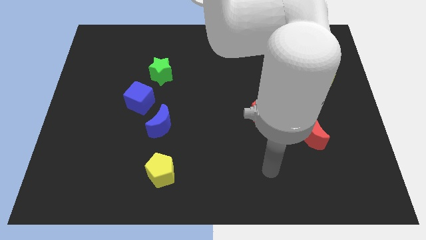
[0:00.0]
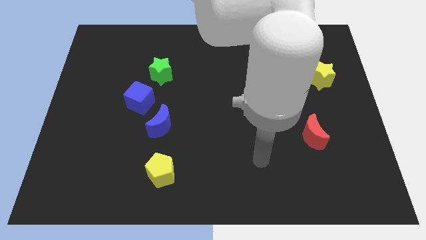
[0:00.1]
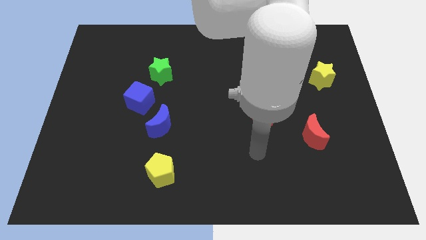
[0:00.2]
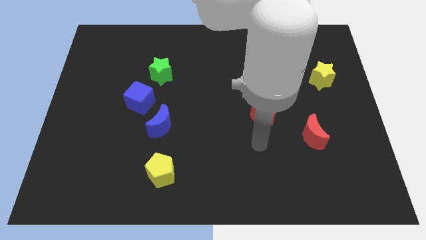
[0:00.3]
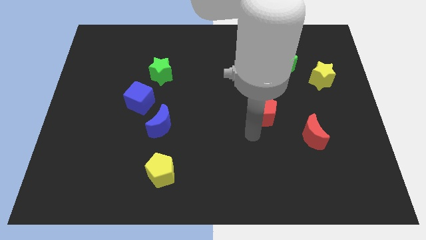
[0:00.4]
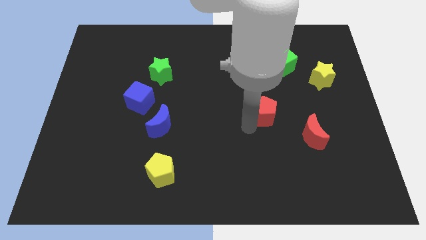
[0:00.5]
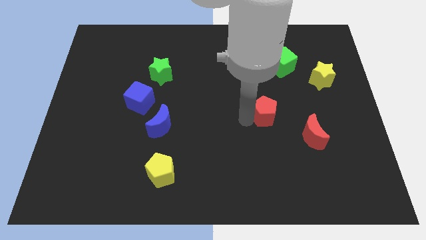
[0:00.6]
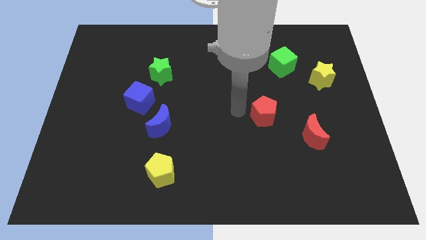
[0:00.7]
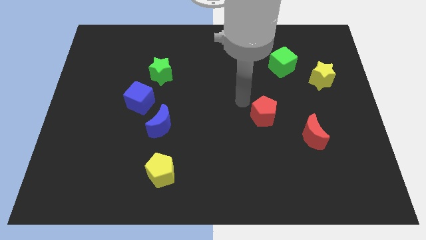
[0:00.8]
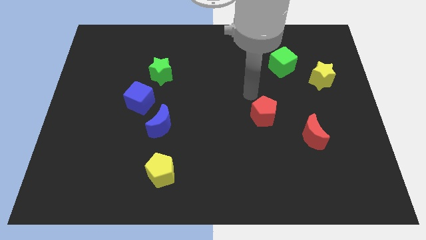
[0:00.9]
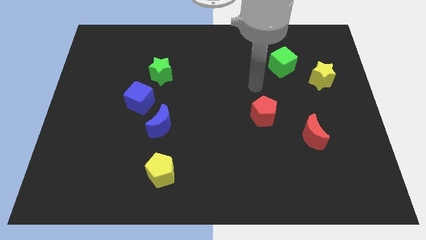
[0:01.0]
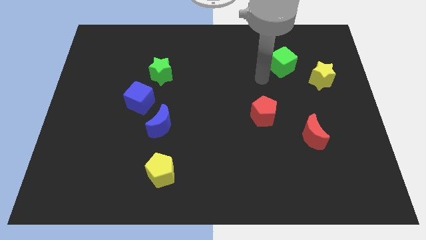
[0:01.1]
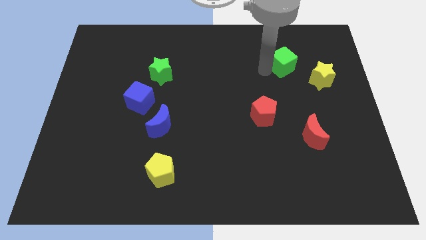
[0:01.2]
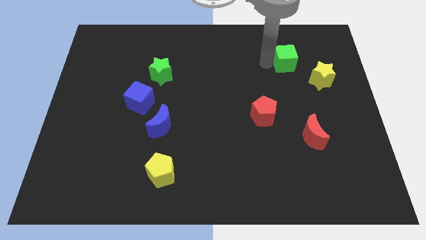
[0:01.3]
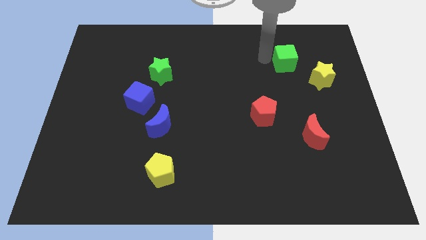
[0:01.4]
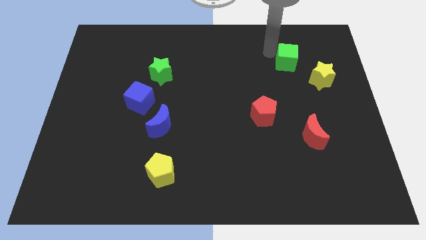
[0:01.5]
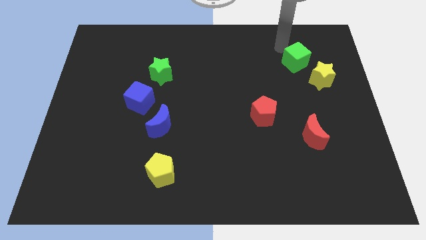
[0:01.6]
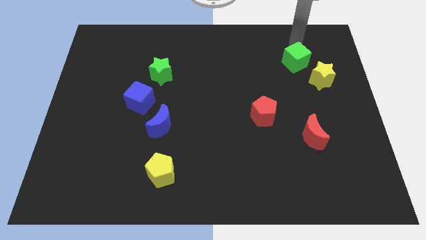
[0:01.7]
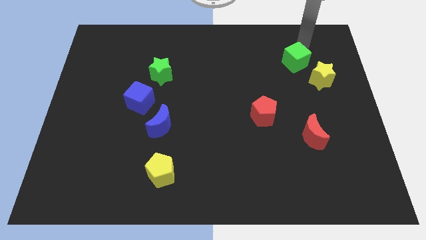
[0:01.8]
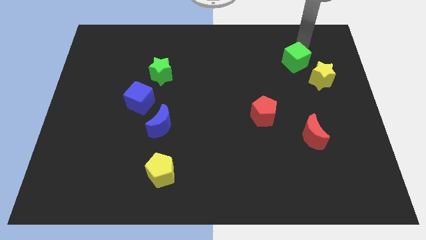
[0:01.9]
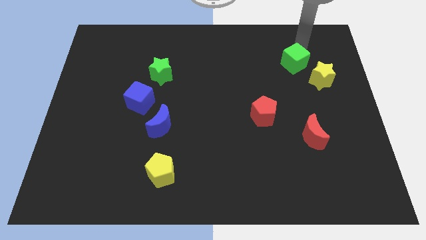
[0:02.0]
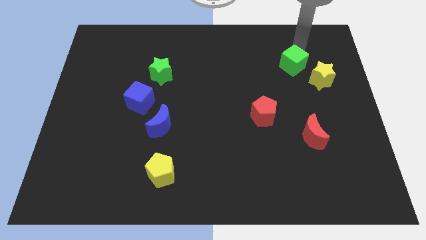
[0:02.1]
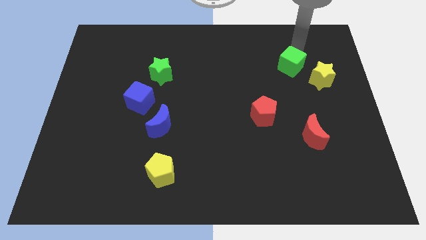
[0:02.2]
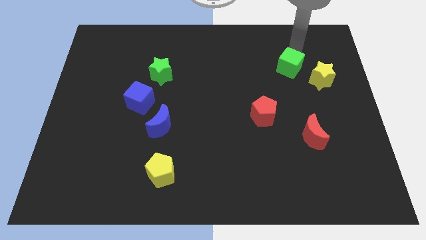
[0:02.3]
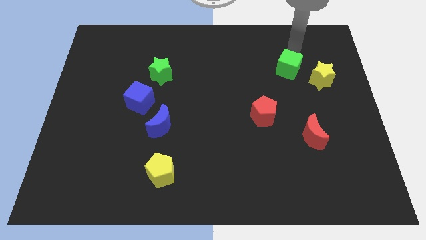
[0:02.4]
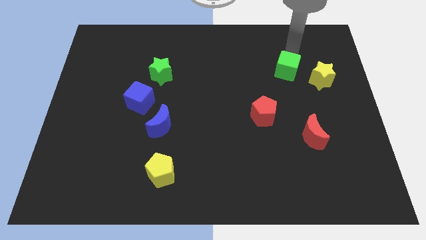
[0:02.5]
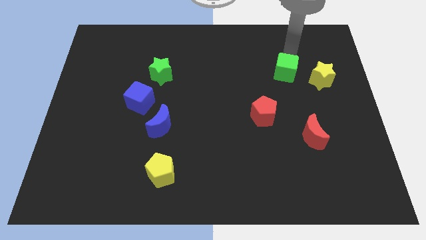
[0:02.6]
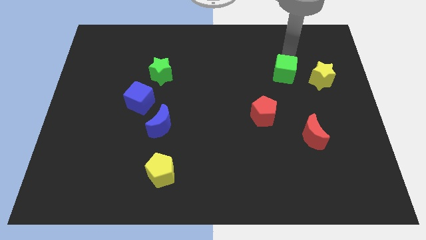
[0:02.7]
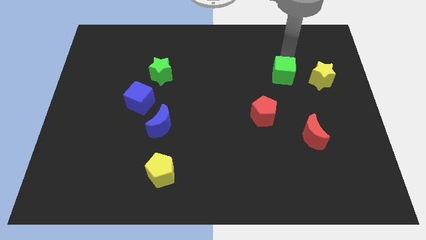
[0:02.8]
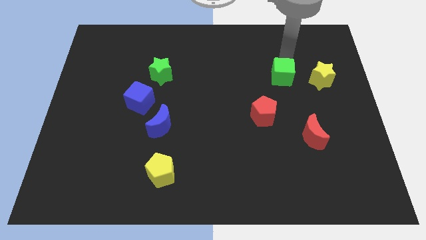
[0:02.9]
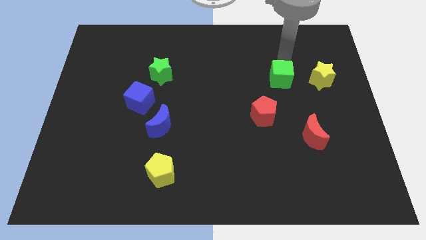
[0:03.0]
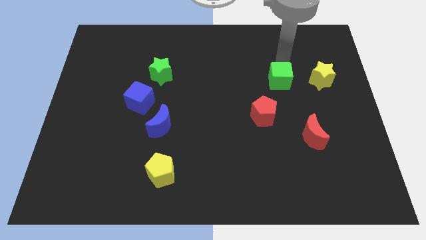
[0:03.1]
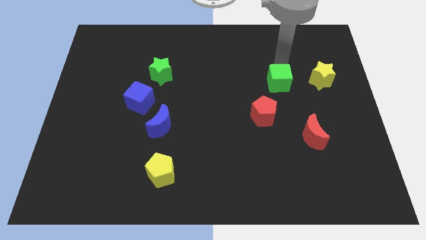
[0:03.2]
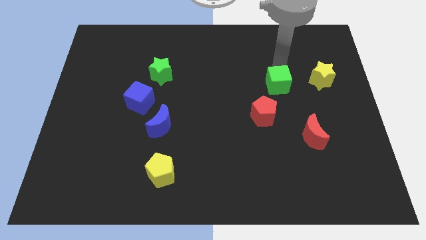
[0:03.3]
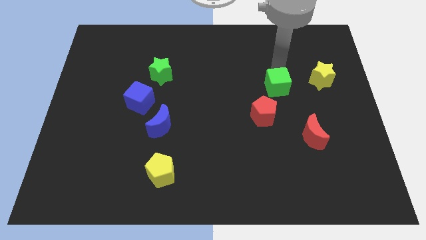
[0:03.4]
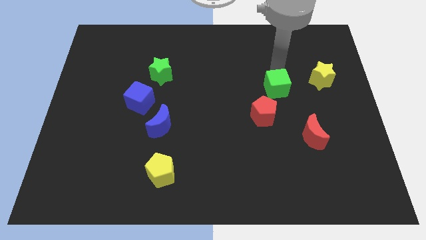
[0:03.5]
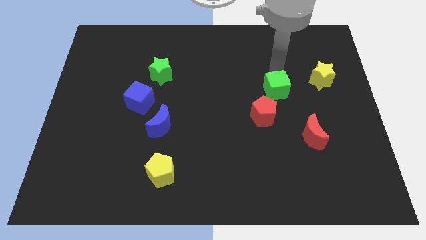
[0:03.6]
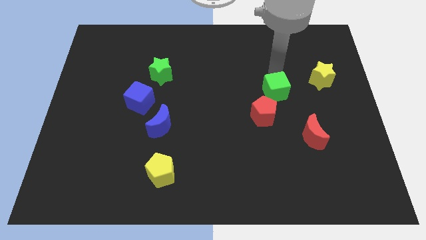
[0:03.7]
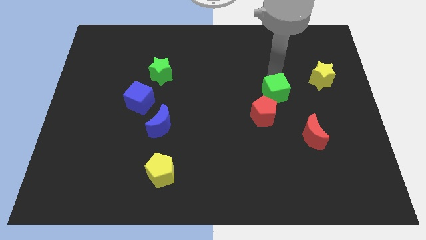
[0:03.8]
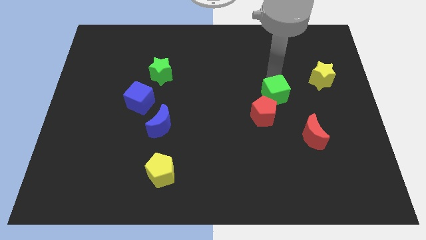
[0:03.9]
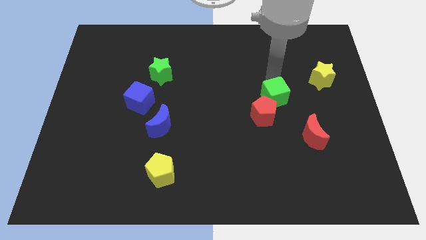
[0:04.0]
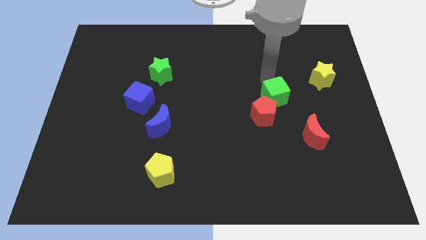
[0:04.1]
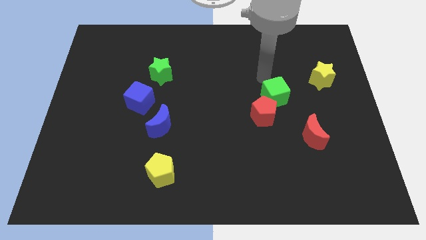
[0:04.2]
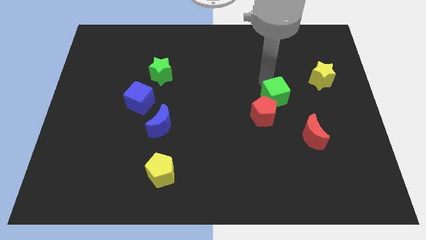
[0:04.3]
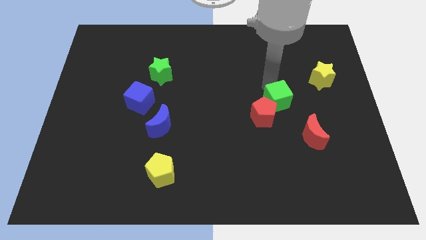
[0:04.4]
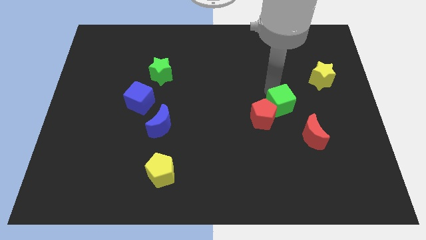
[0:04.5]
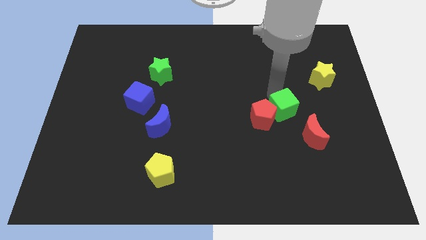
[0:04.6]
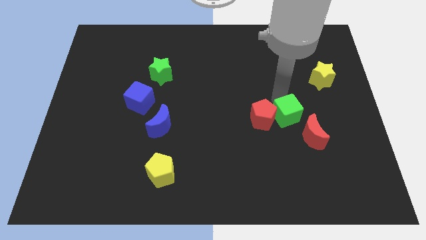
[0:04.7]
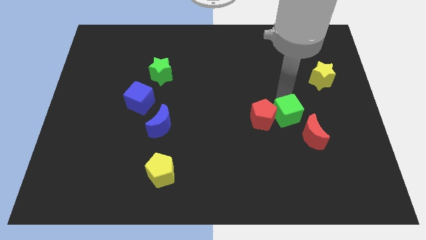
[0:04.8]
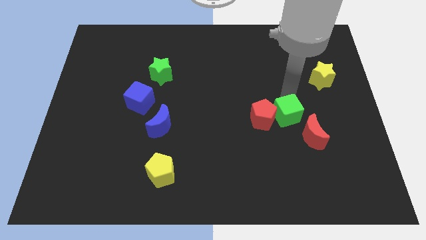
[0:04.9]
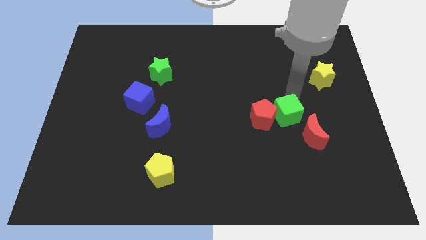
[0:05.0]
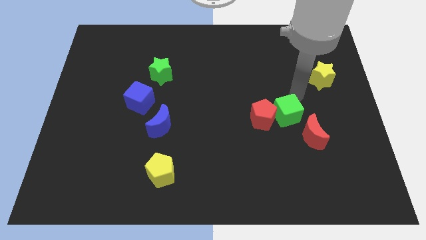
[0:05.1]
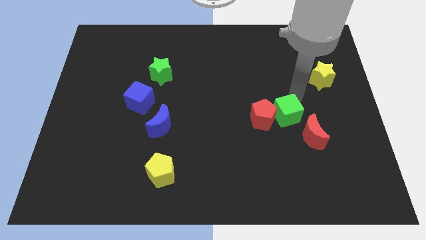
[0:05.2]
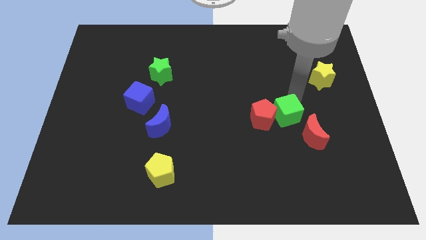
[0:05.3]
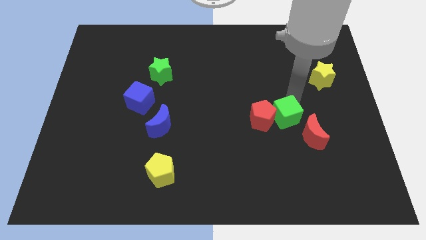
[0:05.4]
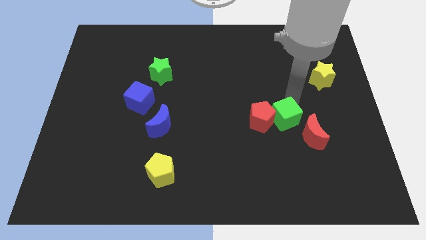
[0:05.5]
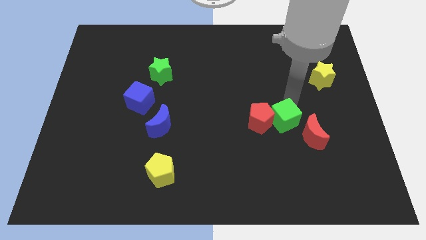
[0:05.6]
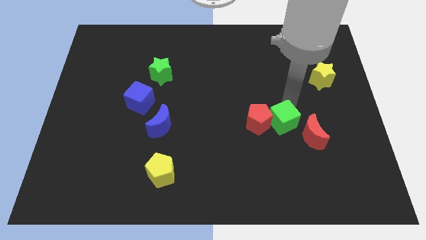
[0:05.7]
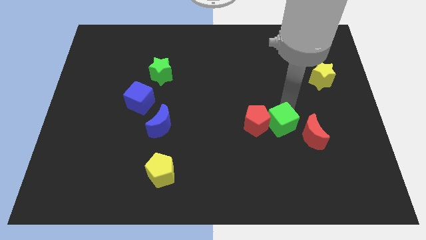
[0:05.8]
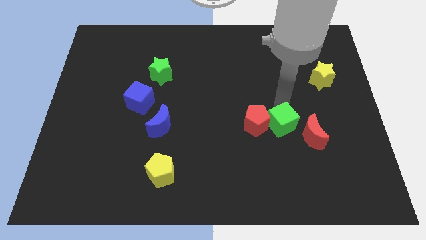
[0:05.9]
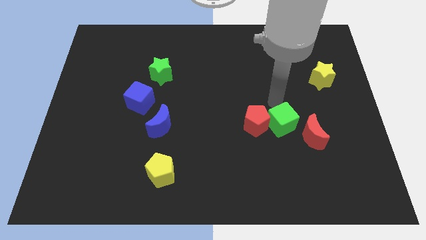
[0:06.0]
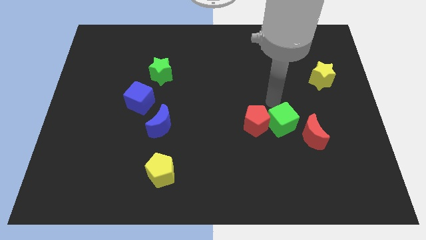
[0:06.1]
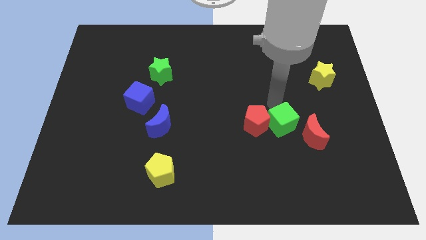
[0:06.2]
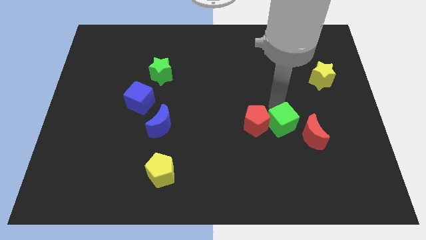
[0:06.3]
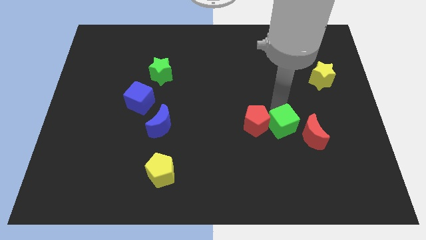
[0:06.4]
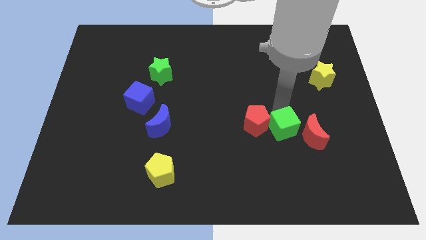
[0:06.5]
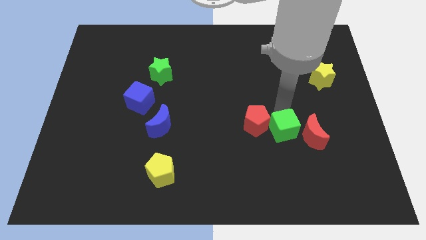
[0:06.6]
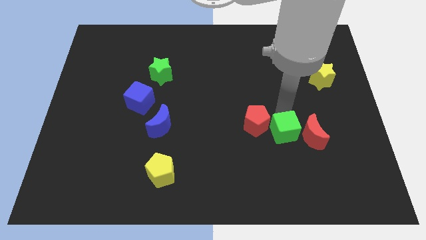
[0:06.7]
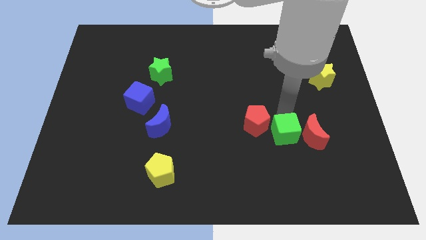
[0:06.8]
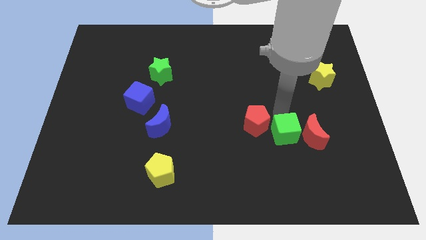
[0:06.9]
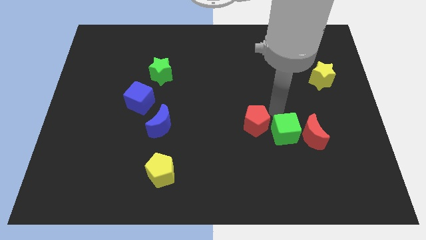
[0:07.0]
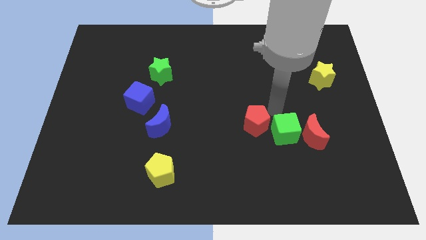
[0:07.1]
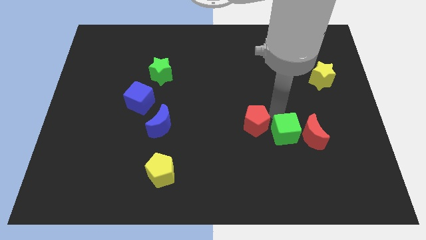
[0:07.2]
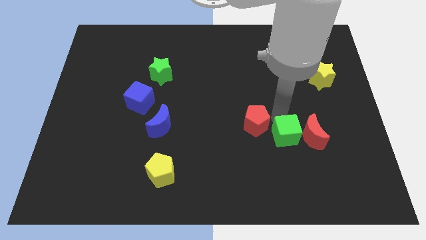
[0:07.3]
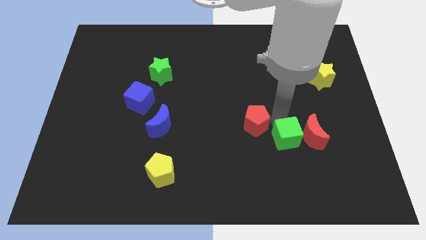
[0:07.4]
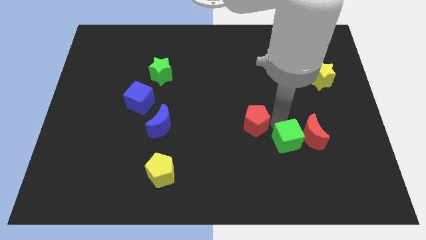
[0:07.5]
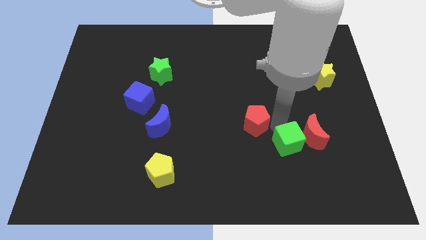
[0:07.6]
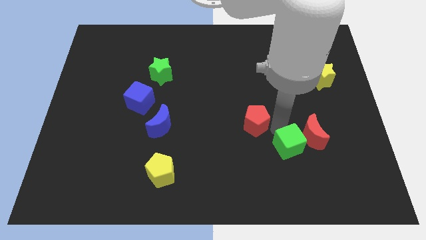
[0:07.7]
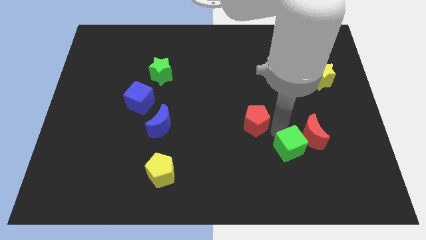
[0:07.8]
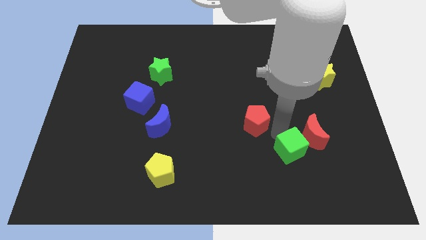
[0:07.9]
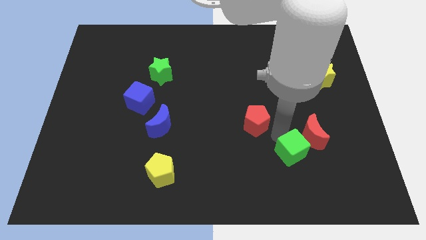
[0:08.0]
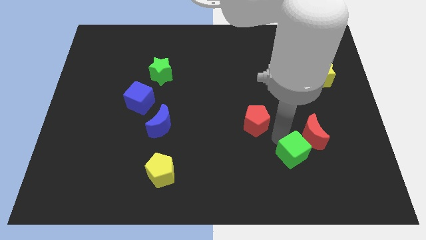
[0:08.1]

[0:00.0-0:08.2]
slide the green cube to the bottom side of the red moon
